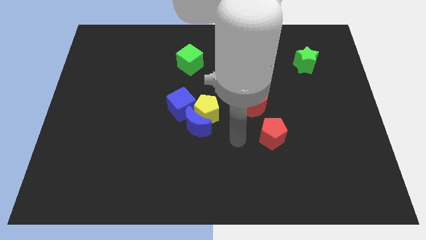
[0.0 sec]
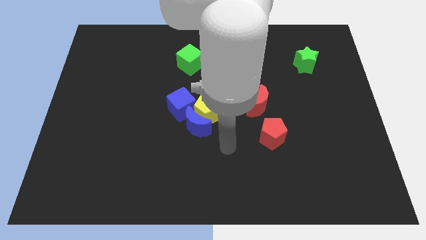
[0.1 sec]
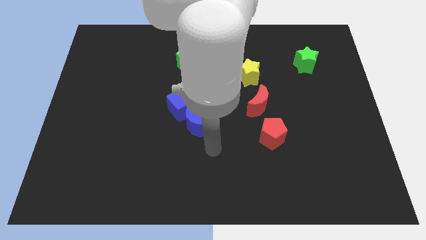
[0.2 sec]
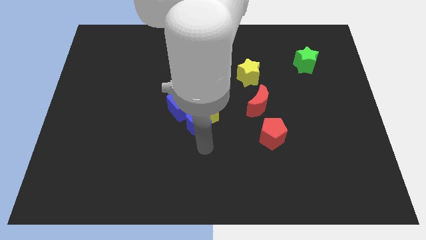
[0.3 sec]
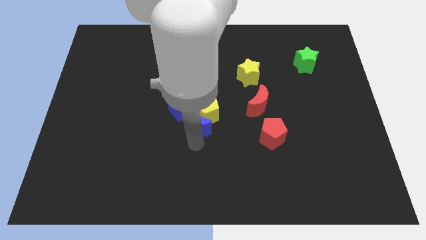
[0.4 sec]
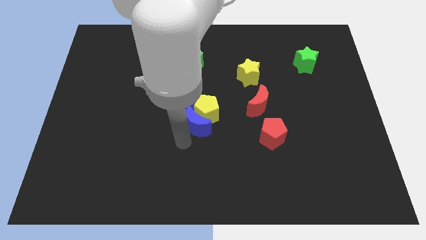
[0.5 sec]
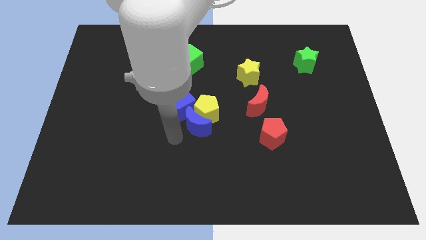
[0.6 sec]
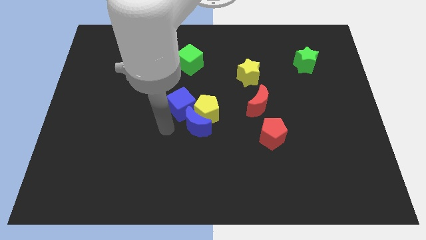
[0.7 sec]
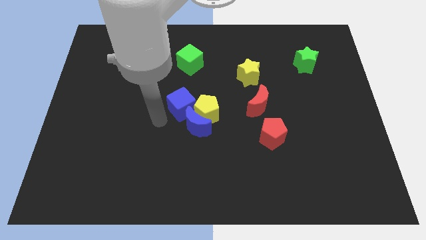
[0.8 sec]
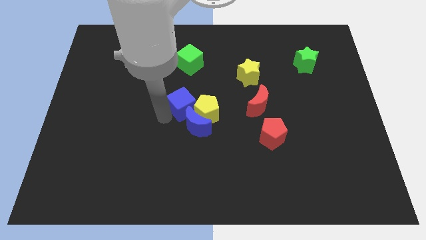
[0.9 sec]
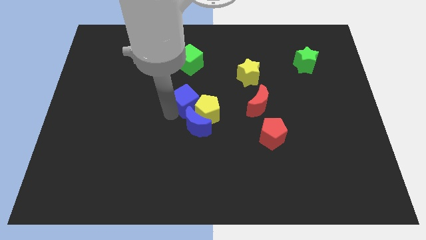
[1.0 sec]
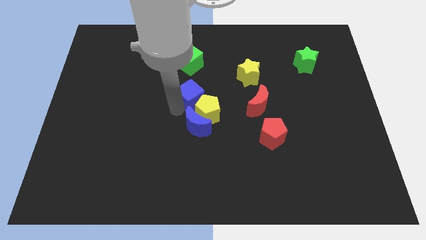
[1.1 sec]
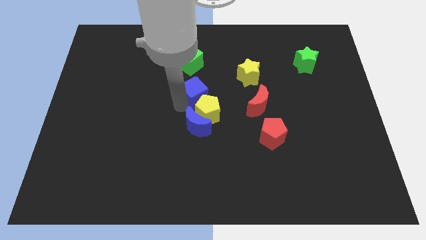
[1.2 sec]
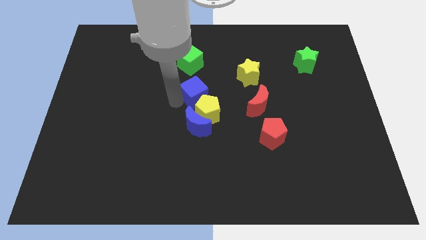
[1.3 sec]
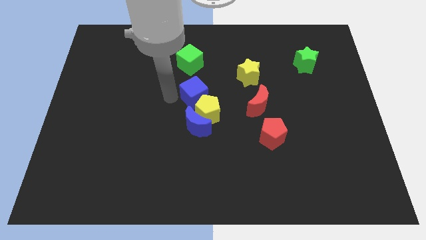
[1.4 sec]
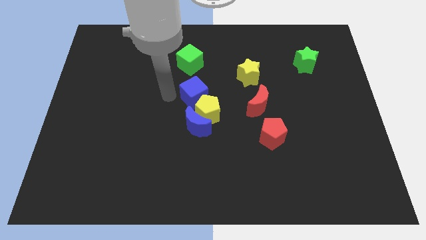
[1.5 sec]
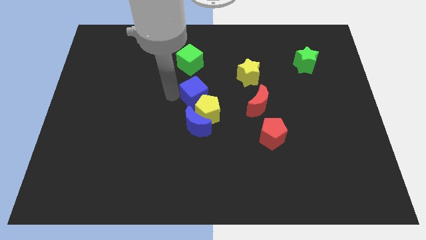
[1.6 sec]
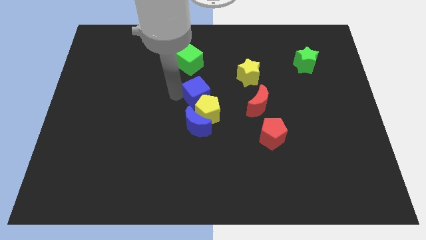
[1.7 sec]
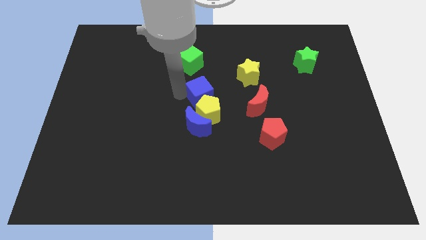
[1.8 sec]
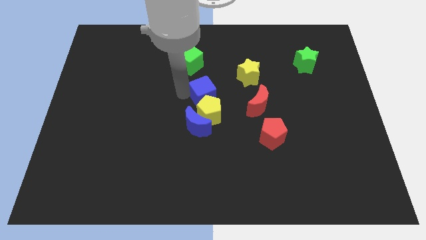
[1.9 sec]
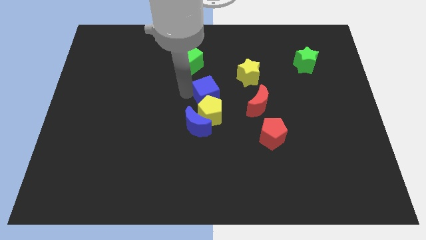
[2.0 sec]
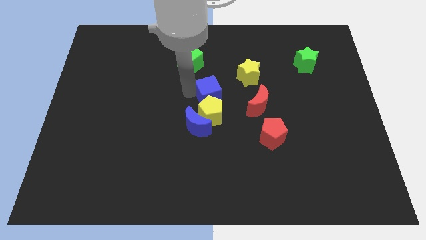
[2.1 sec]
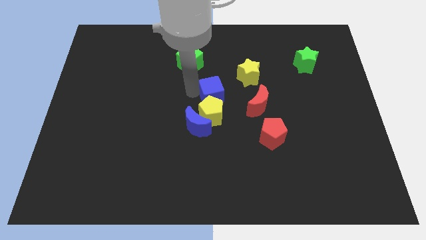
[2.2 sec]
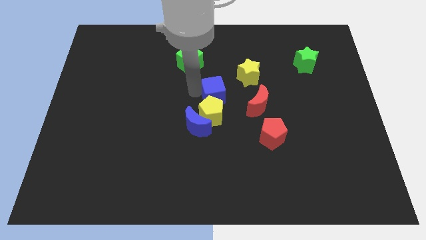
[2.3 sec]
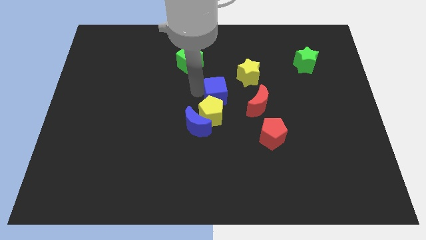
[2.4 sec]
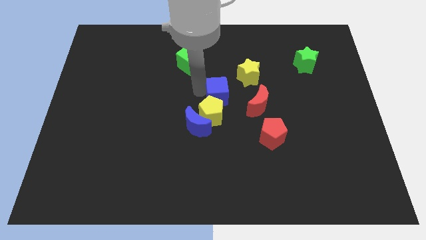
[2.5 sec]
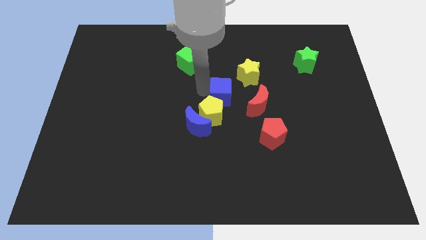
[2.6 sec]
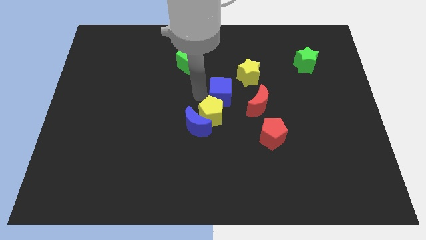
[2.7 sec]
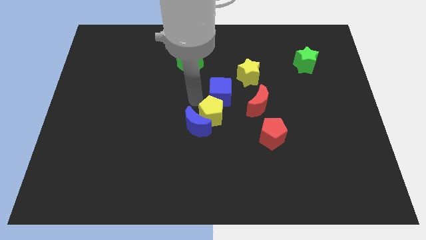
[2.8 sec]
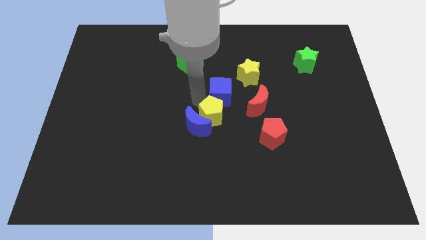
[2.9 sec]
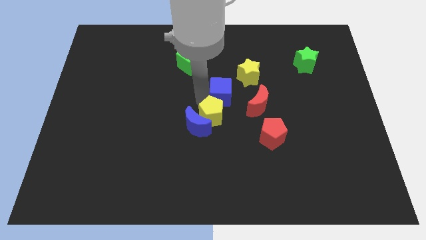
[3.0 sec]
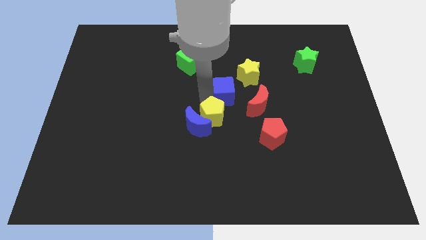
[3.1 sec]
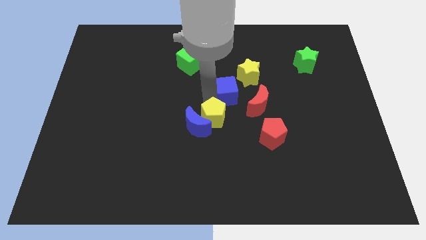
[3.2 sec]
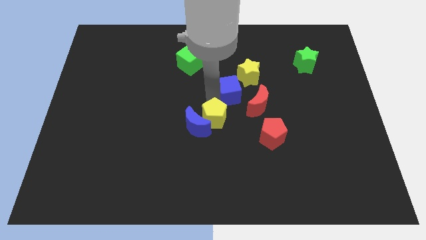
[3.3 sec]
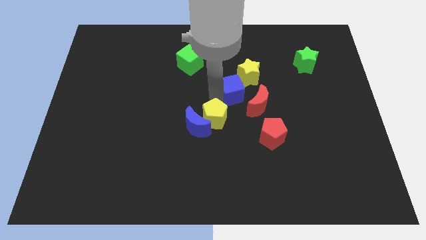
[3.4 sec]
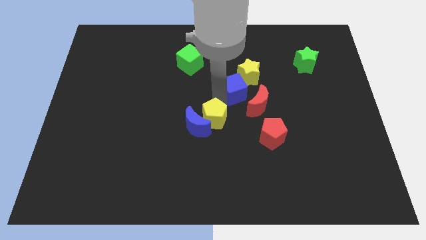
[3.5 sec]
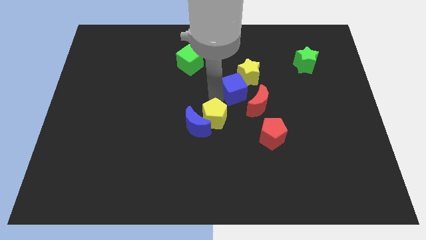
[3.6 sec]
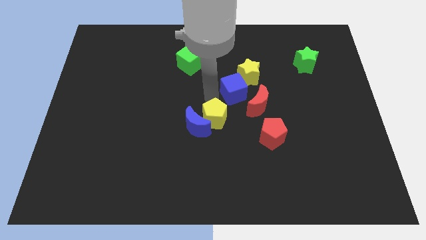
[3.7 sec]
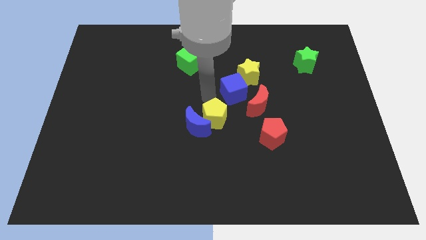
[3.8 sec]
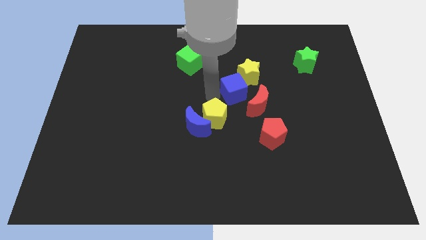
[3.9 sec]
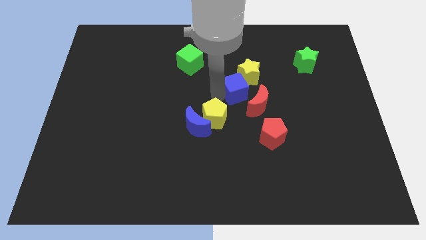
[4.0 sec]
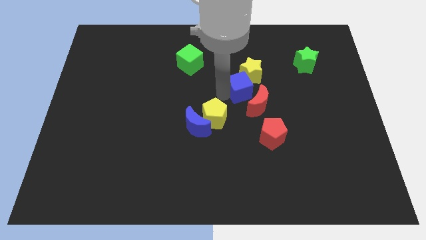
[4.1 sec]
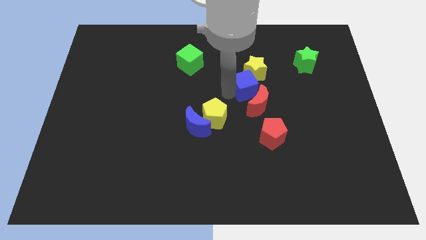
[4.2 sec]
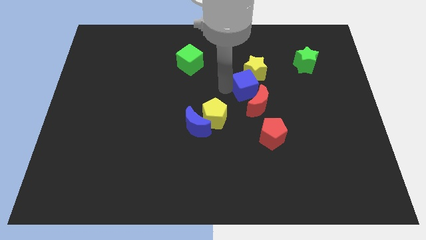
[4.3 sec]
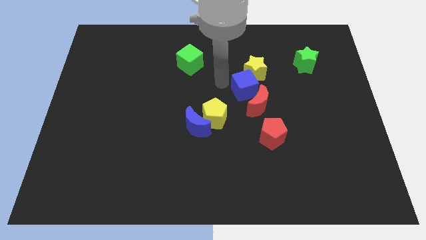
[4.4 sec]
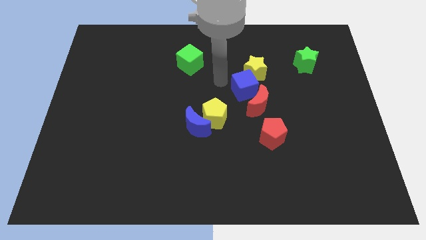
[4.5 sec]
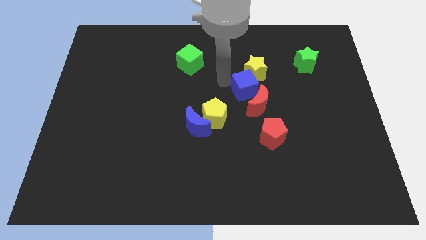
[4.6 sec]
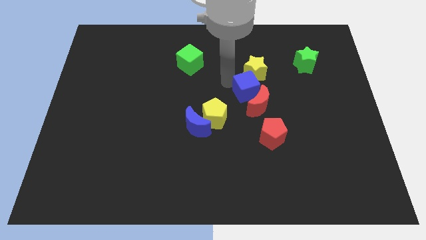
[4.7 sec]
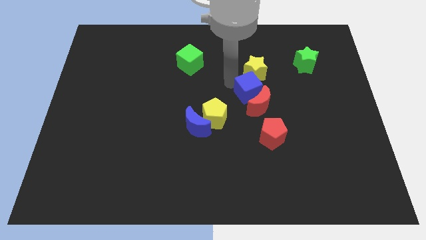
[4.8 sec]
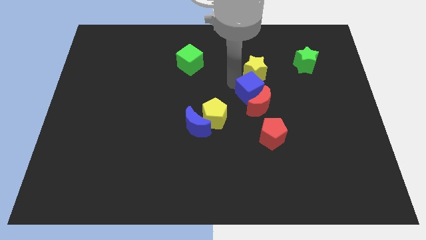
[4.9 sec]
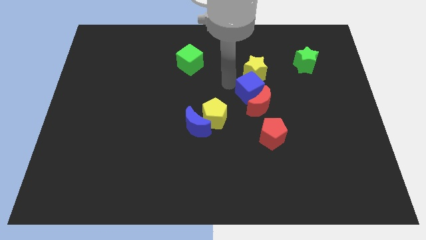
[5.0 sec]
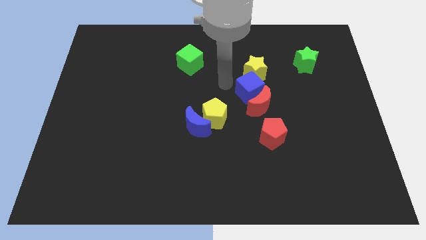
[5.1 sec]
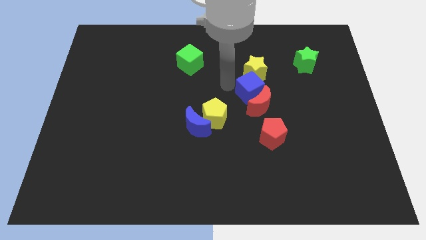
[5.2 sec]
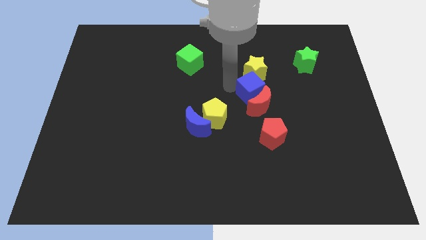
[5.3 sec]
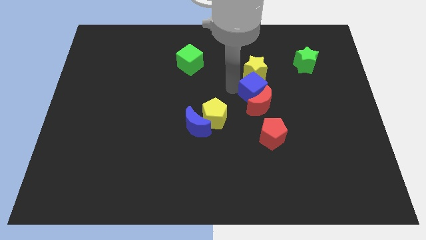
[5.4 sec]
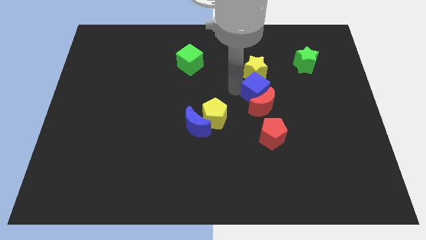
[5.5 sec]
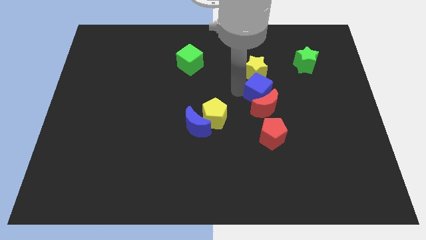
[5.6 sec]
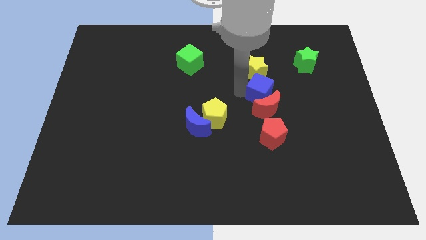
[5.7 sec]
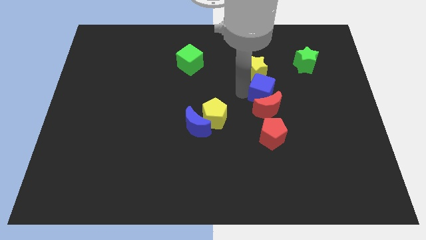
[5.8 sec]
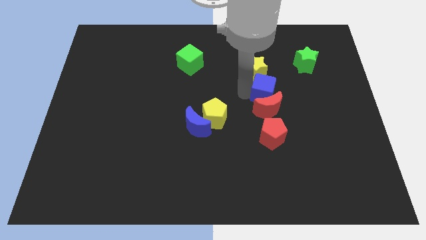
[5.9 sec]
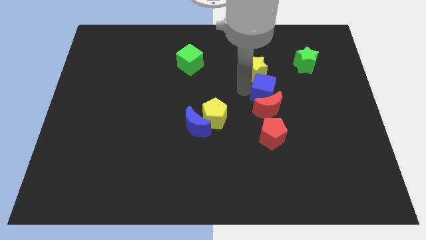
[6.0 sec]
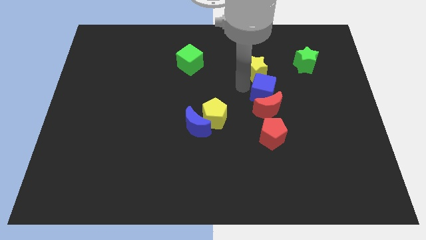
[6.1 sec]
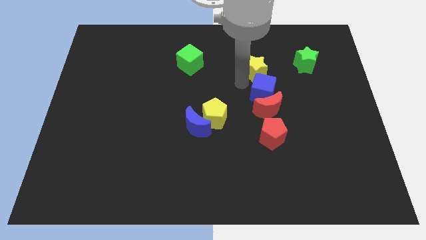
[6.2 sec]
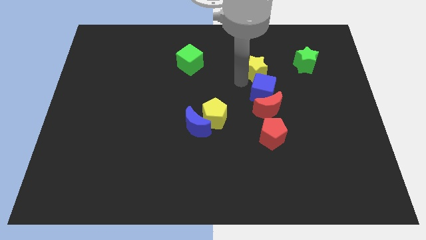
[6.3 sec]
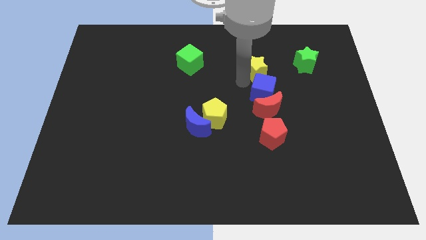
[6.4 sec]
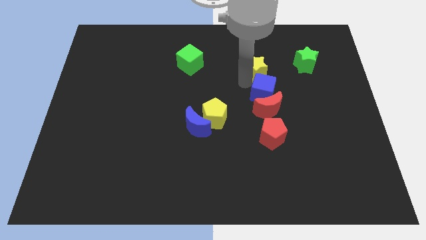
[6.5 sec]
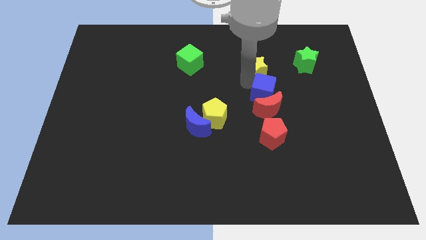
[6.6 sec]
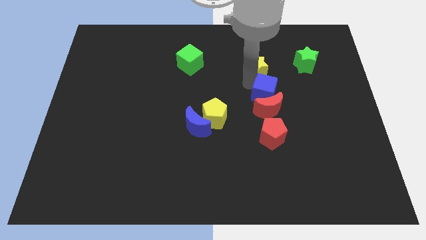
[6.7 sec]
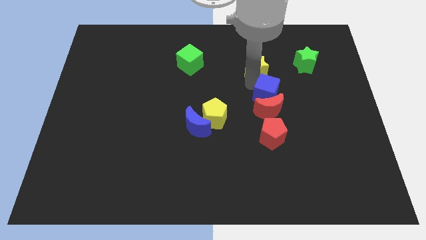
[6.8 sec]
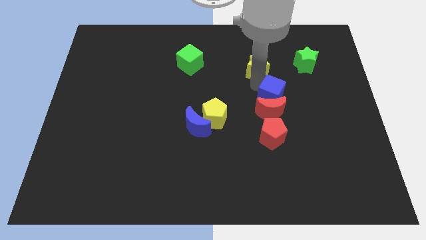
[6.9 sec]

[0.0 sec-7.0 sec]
push the blue cube right

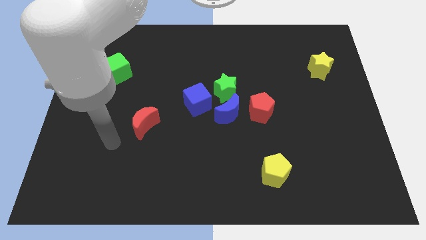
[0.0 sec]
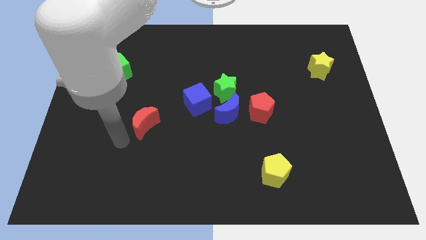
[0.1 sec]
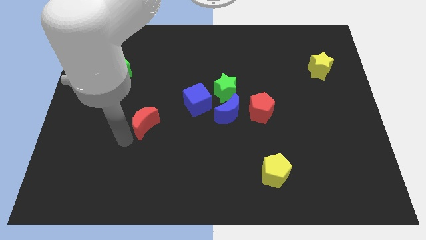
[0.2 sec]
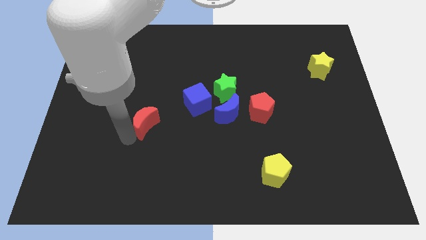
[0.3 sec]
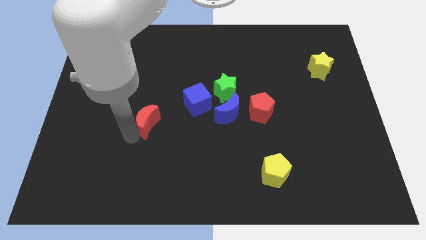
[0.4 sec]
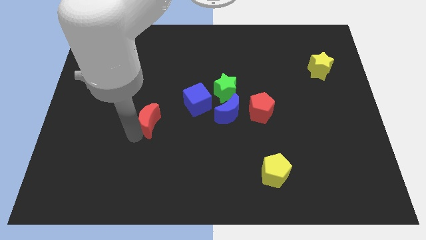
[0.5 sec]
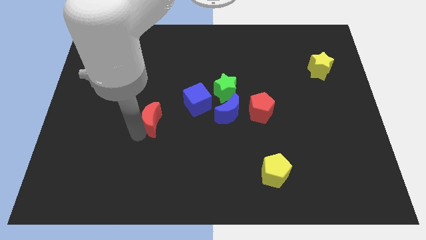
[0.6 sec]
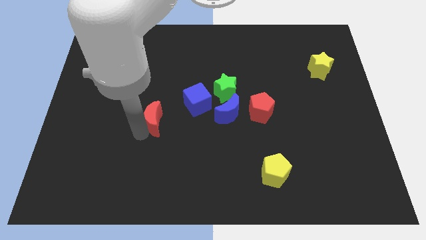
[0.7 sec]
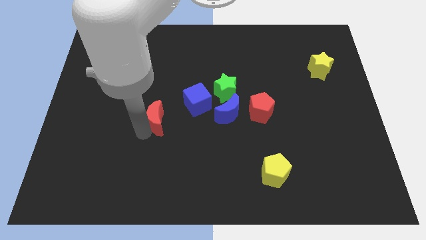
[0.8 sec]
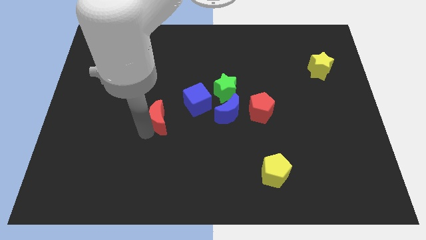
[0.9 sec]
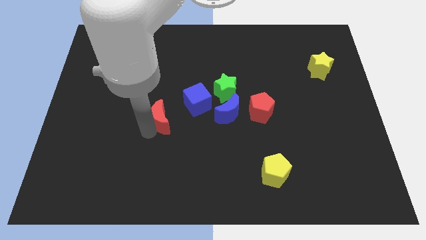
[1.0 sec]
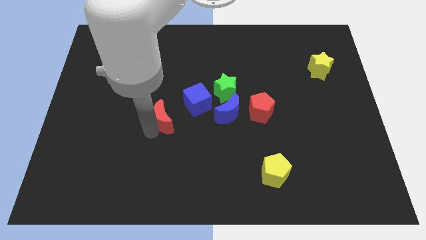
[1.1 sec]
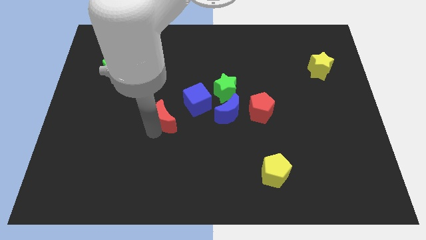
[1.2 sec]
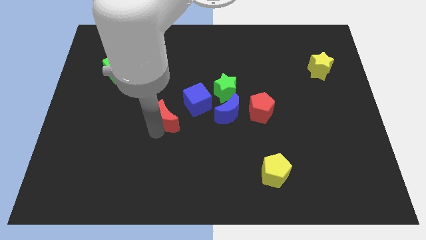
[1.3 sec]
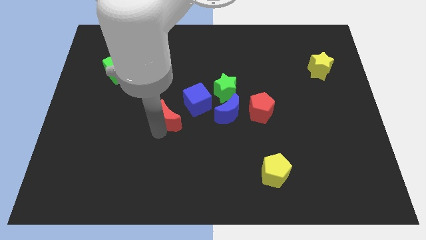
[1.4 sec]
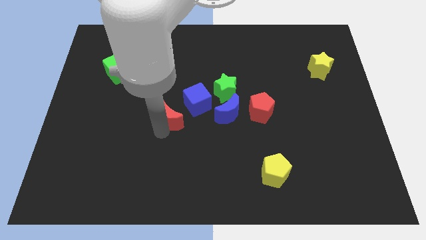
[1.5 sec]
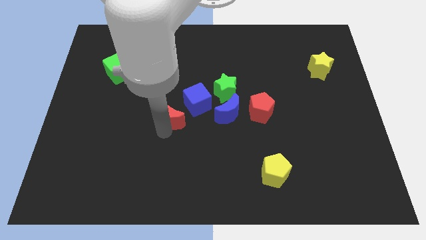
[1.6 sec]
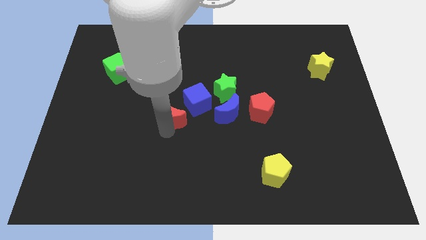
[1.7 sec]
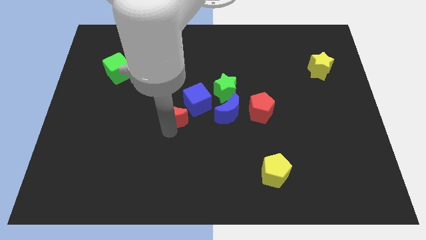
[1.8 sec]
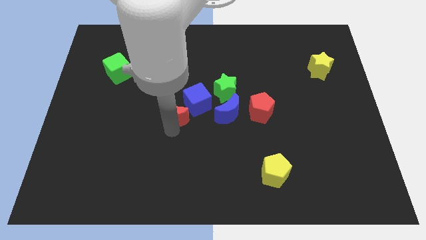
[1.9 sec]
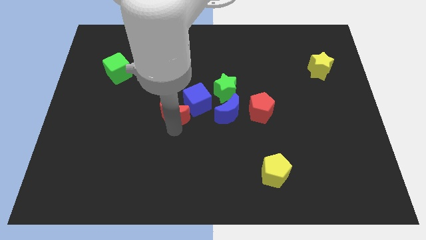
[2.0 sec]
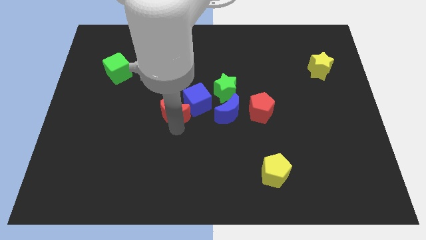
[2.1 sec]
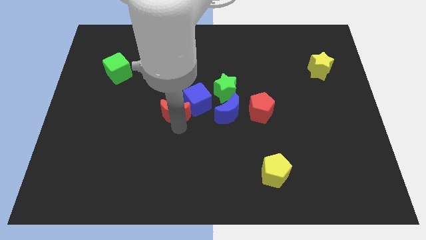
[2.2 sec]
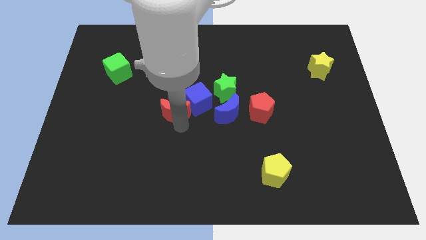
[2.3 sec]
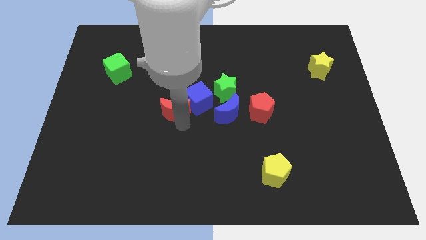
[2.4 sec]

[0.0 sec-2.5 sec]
slightly push the red moon up and to the right diagonally
